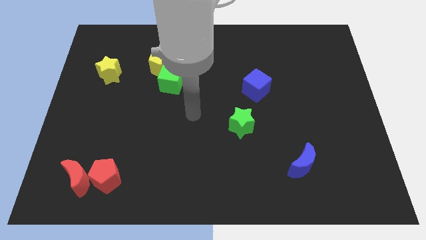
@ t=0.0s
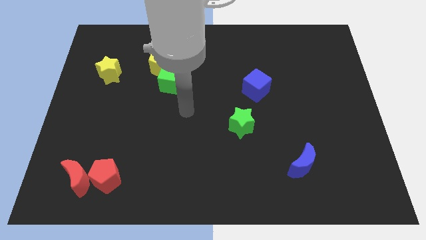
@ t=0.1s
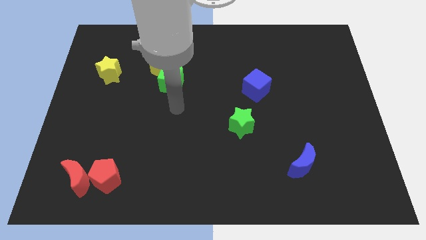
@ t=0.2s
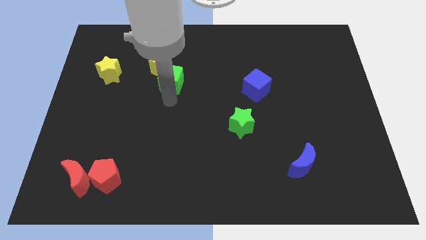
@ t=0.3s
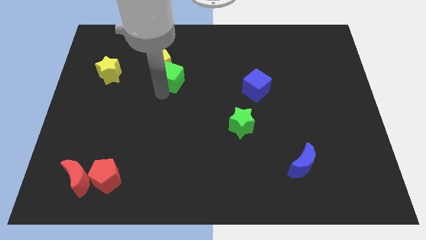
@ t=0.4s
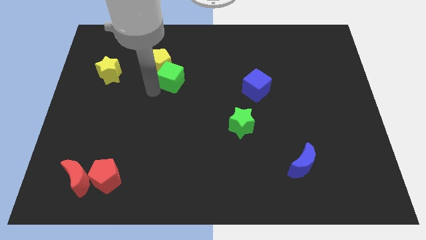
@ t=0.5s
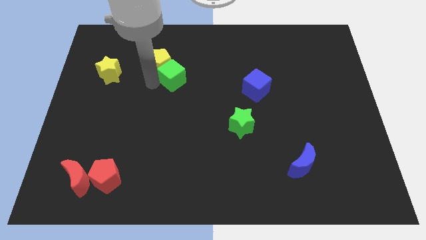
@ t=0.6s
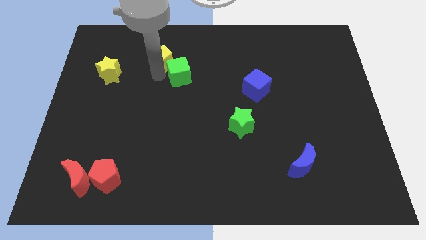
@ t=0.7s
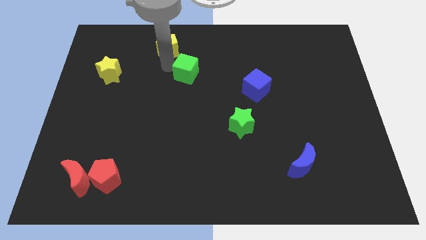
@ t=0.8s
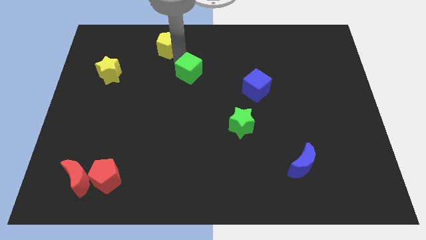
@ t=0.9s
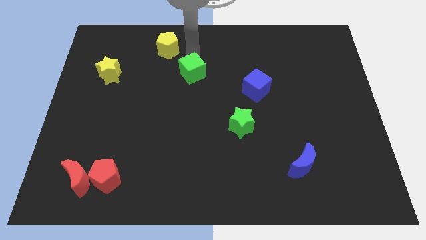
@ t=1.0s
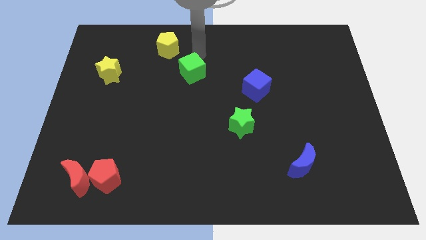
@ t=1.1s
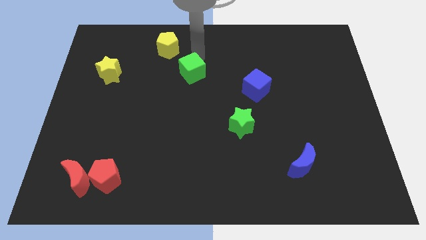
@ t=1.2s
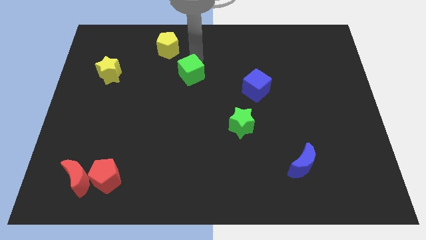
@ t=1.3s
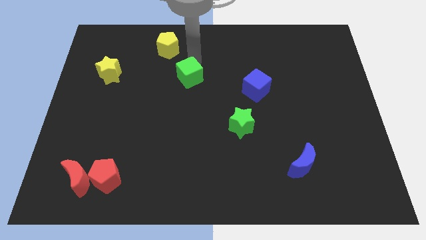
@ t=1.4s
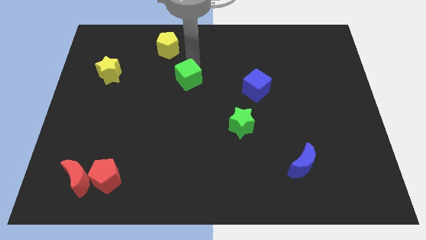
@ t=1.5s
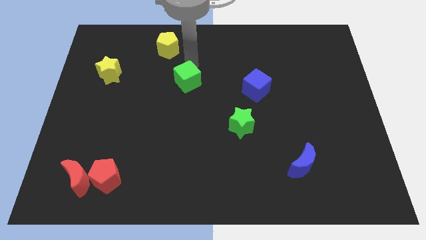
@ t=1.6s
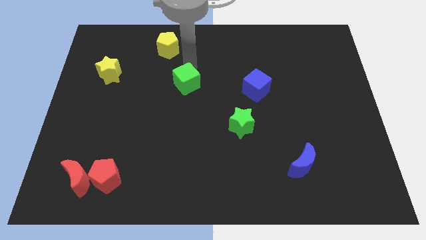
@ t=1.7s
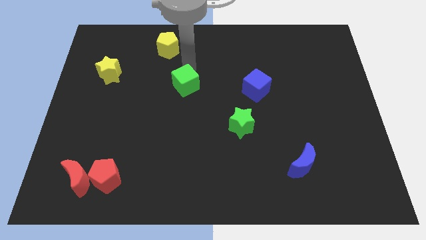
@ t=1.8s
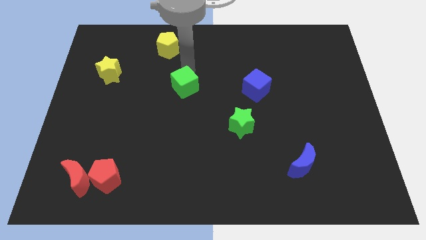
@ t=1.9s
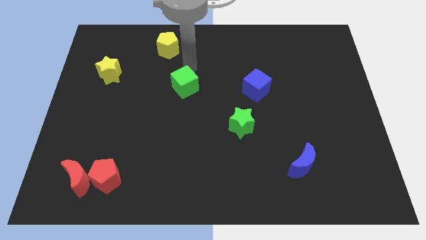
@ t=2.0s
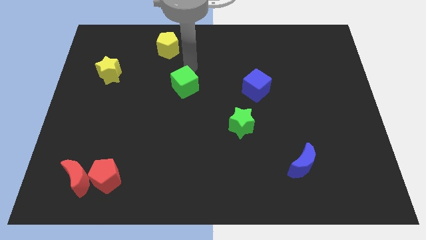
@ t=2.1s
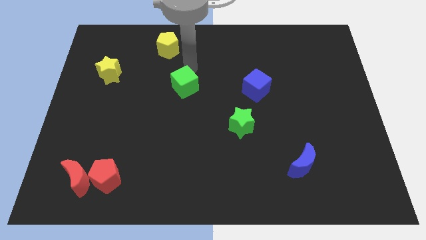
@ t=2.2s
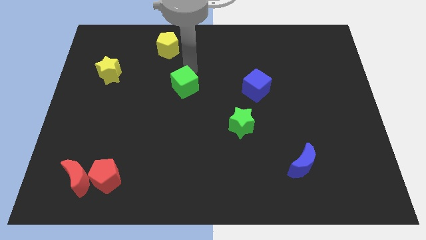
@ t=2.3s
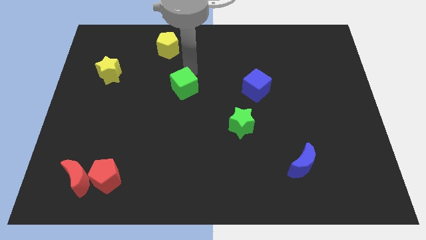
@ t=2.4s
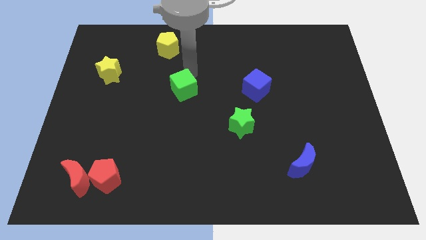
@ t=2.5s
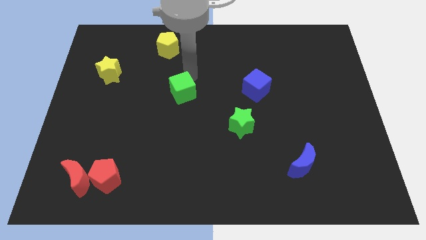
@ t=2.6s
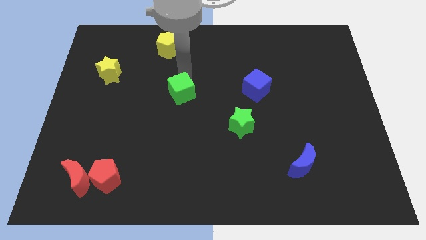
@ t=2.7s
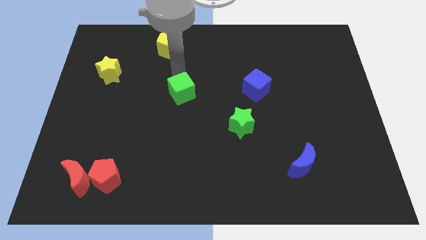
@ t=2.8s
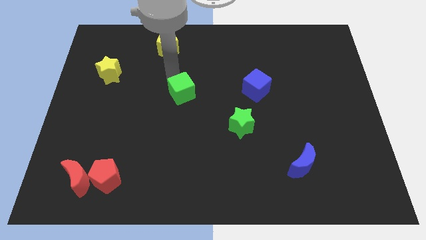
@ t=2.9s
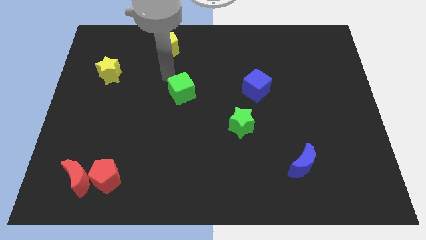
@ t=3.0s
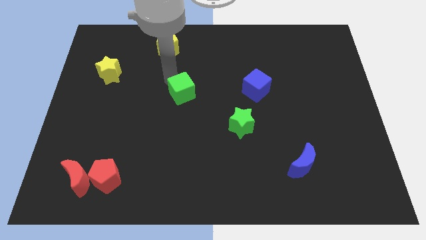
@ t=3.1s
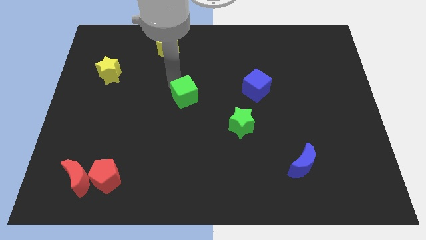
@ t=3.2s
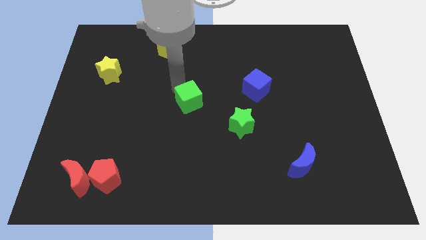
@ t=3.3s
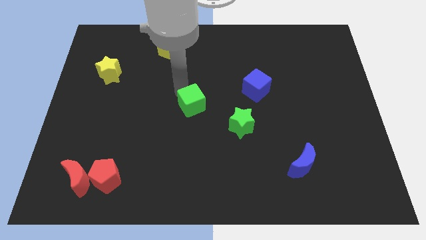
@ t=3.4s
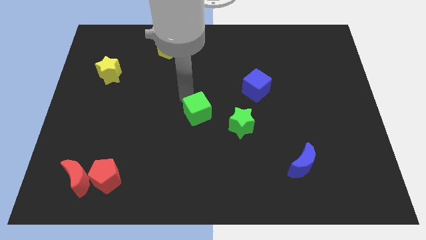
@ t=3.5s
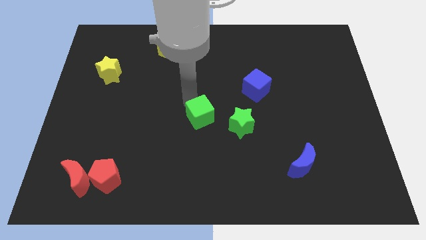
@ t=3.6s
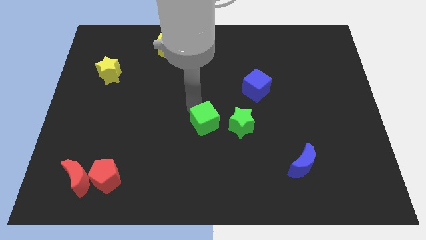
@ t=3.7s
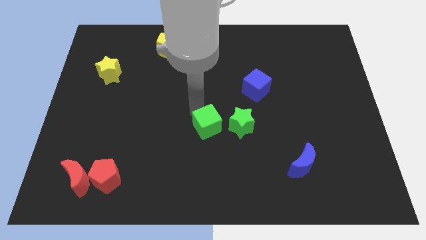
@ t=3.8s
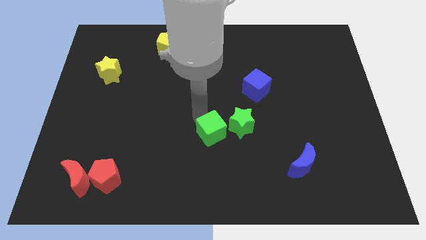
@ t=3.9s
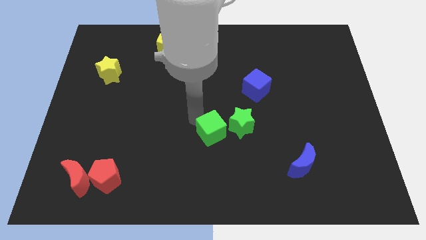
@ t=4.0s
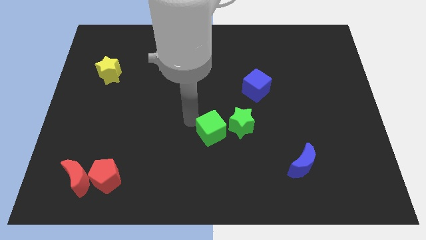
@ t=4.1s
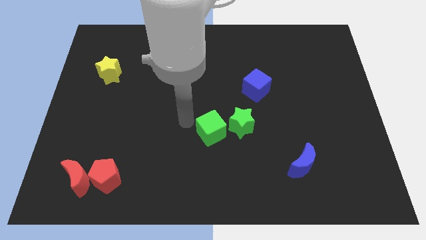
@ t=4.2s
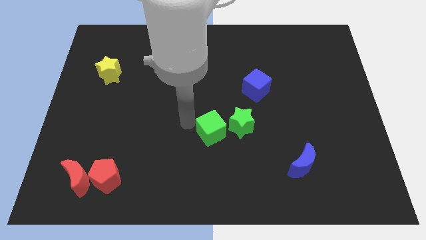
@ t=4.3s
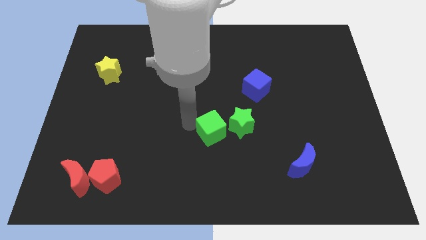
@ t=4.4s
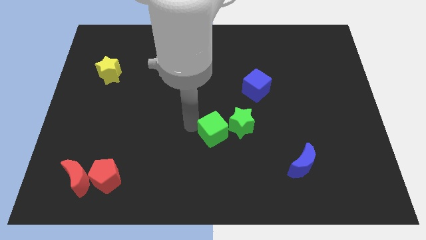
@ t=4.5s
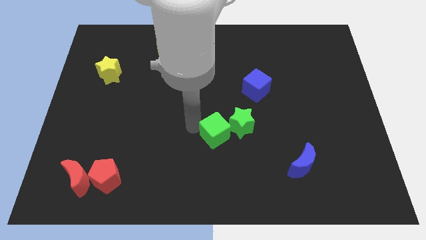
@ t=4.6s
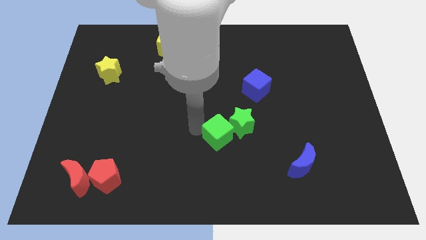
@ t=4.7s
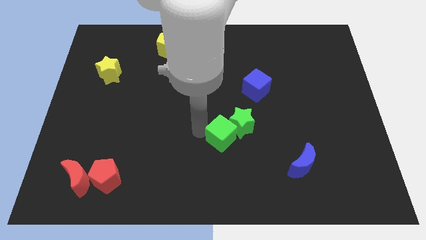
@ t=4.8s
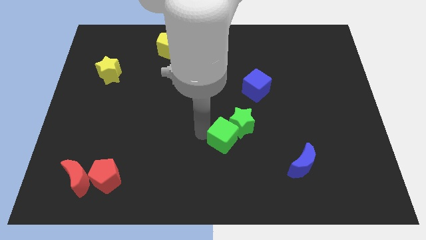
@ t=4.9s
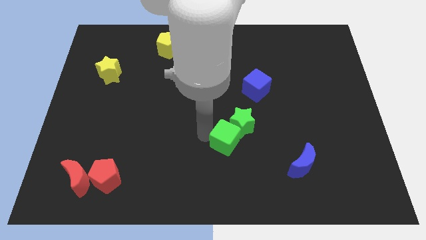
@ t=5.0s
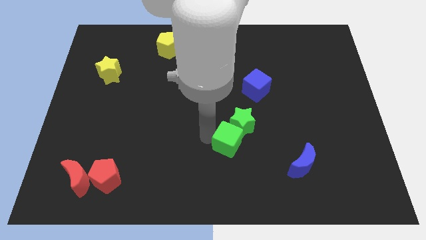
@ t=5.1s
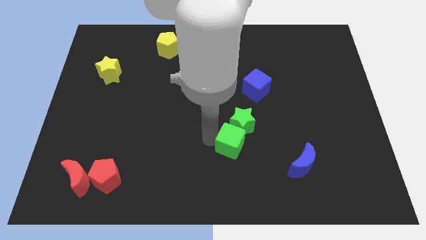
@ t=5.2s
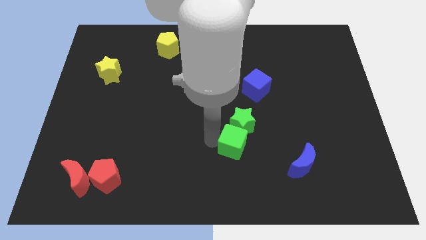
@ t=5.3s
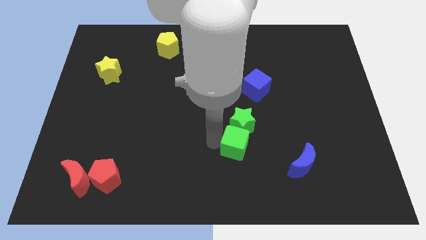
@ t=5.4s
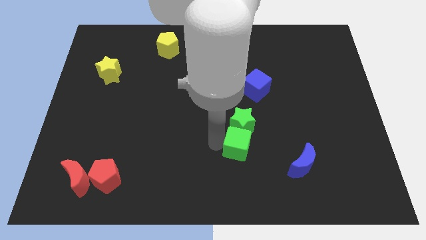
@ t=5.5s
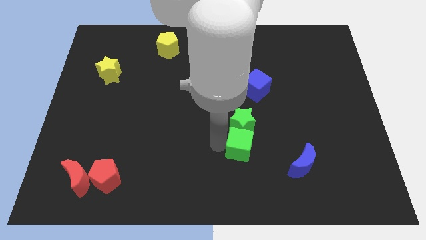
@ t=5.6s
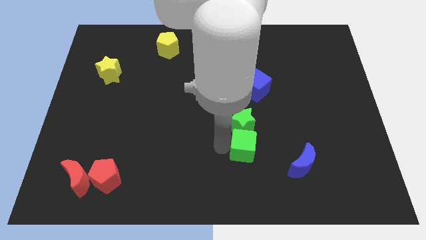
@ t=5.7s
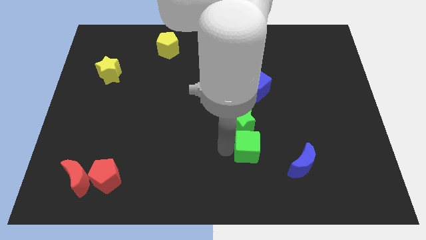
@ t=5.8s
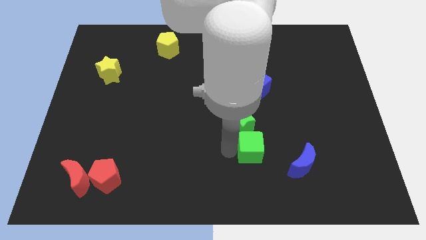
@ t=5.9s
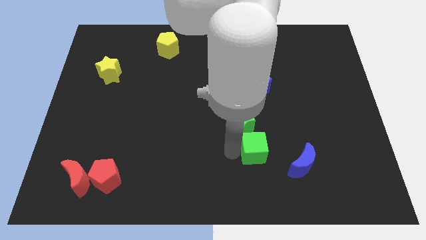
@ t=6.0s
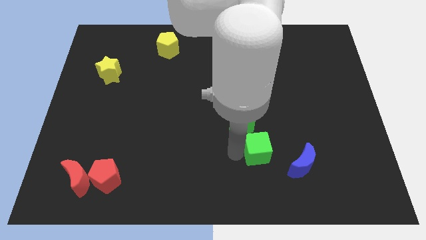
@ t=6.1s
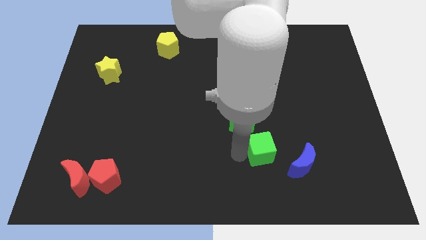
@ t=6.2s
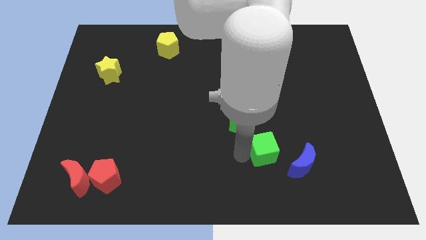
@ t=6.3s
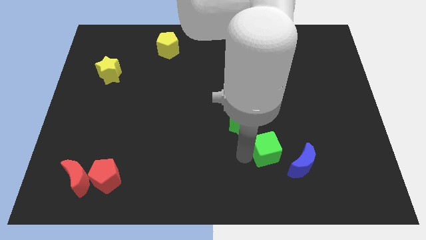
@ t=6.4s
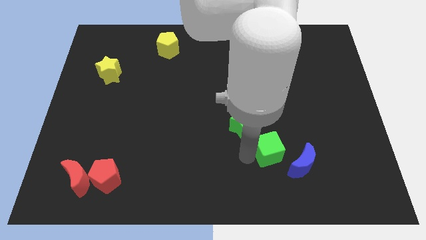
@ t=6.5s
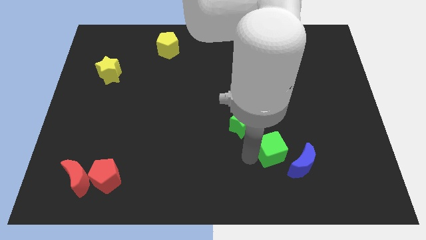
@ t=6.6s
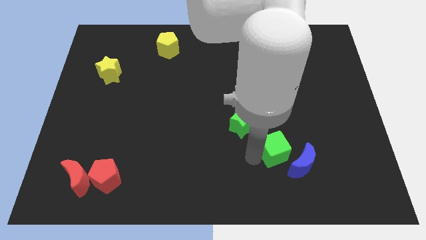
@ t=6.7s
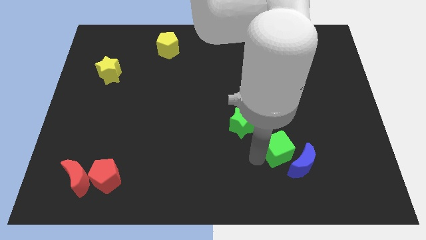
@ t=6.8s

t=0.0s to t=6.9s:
slide the green cube close to the blue moon
